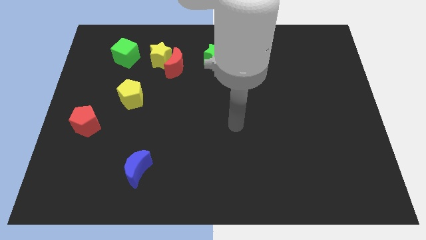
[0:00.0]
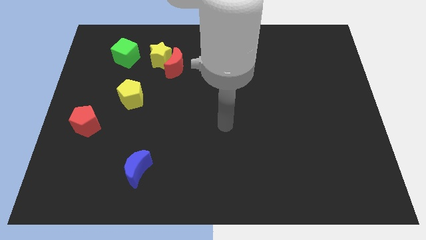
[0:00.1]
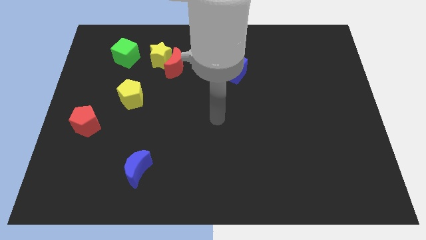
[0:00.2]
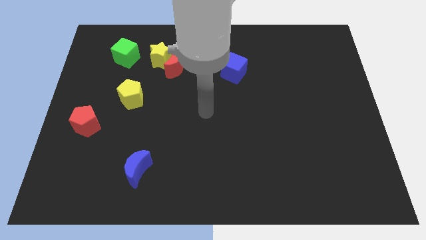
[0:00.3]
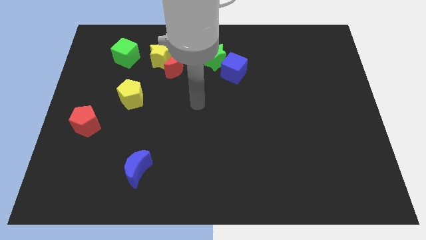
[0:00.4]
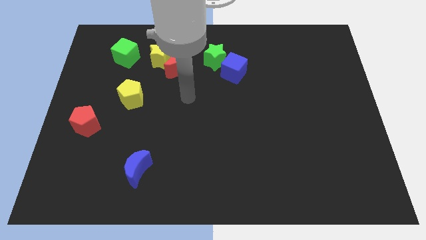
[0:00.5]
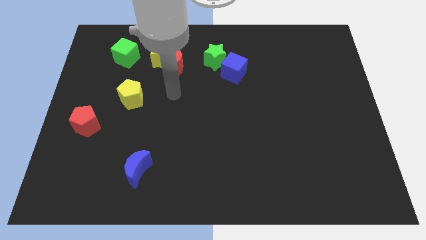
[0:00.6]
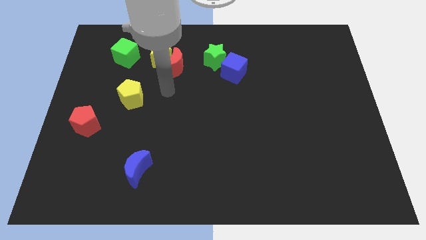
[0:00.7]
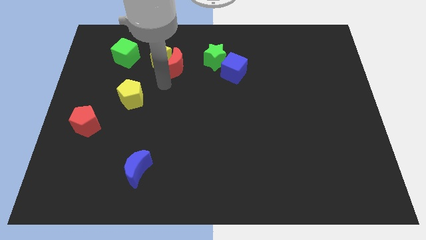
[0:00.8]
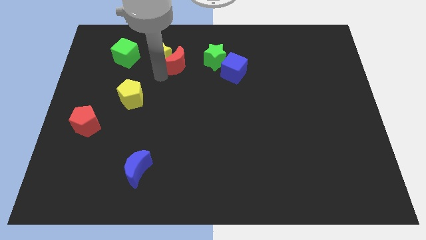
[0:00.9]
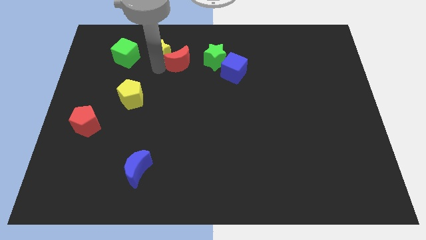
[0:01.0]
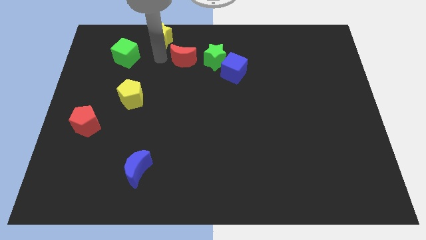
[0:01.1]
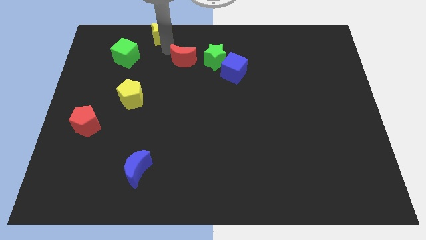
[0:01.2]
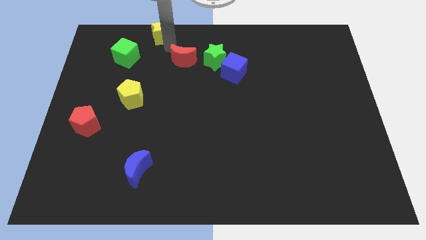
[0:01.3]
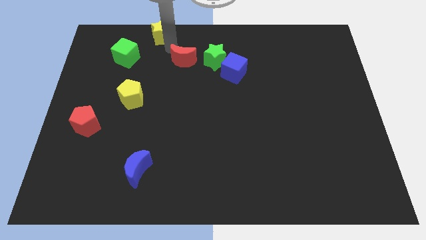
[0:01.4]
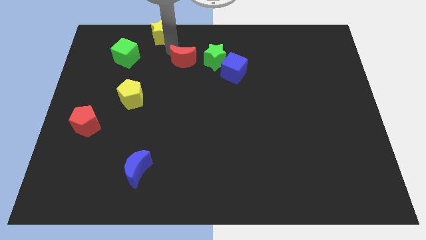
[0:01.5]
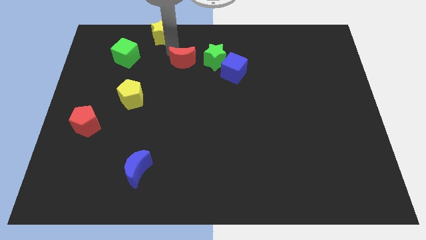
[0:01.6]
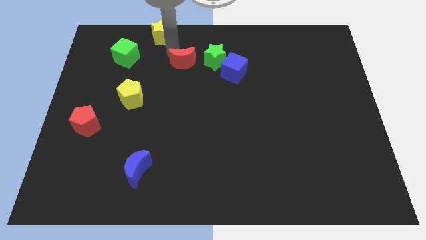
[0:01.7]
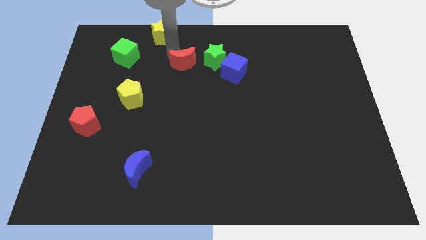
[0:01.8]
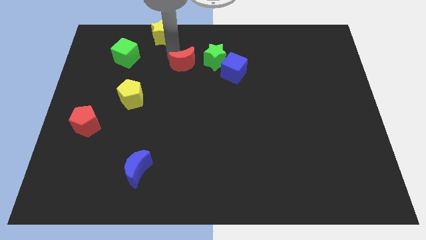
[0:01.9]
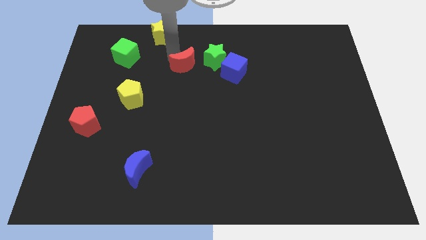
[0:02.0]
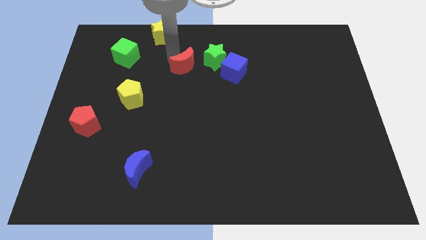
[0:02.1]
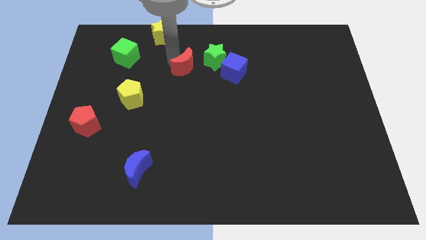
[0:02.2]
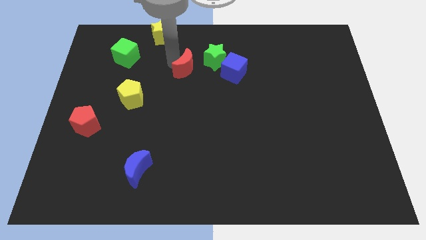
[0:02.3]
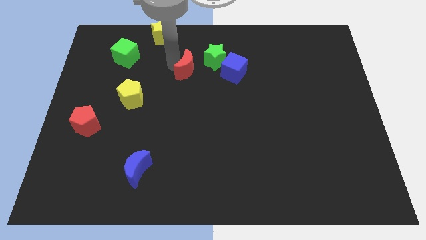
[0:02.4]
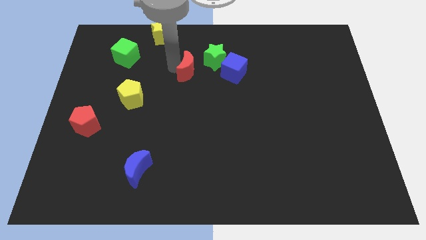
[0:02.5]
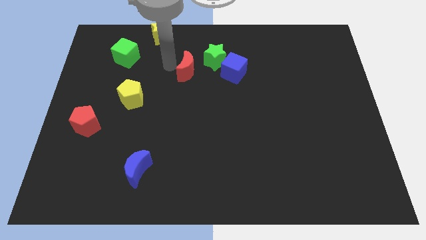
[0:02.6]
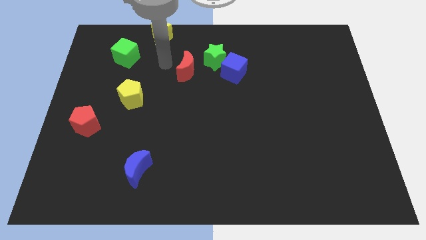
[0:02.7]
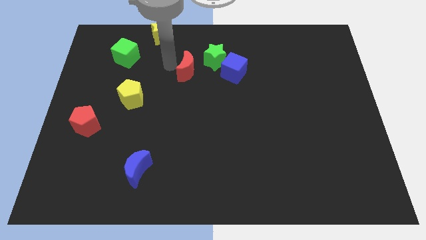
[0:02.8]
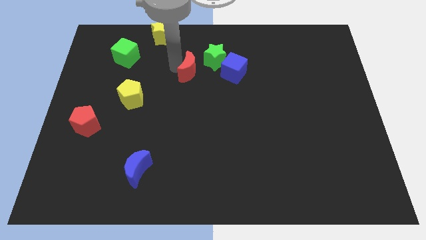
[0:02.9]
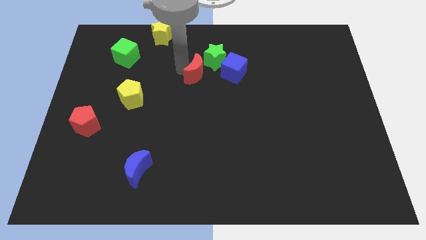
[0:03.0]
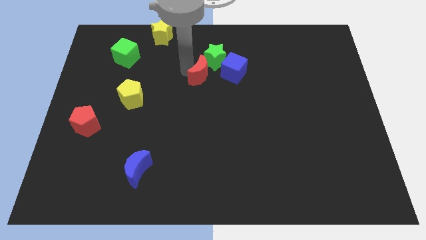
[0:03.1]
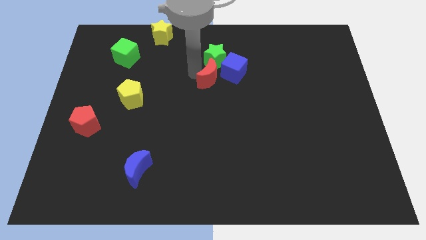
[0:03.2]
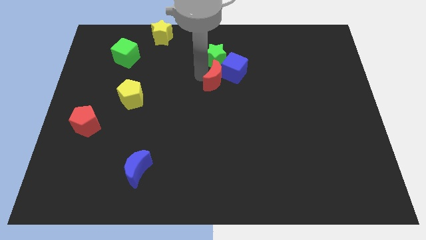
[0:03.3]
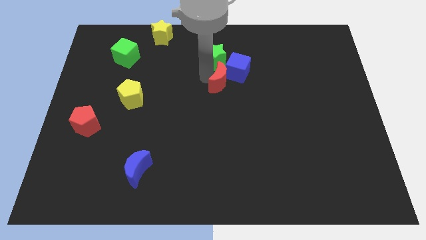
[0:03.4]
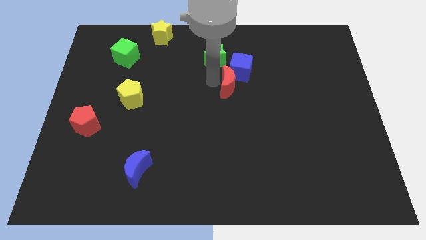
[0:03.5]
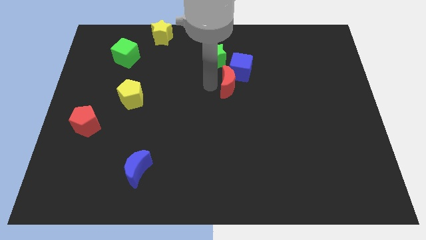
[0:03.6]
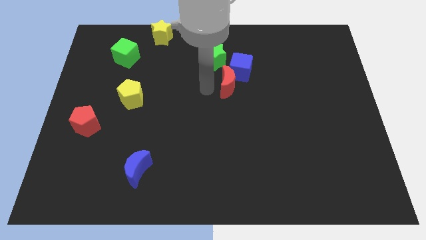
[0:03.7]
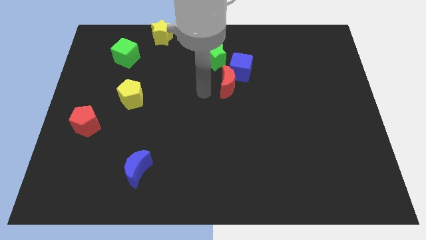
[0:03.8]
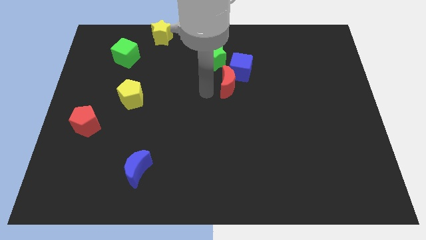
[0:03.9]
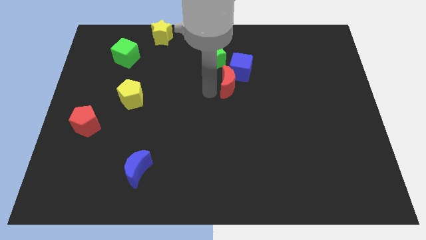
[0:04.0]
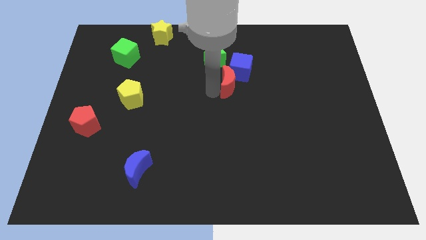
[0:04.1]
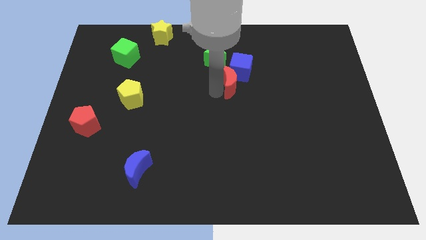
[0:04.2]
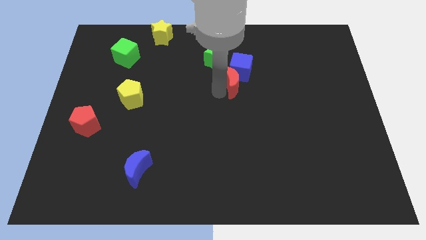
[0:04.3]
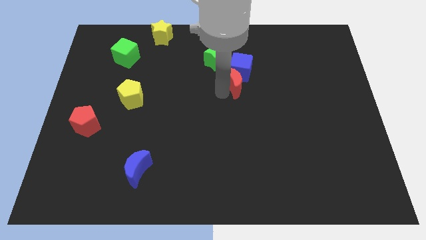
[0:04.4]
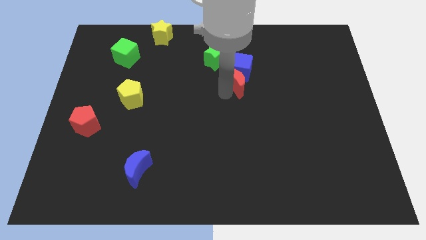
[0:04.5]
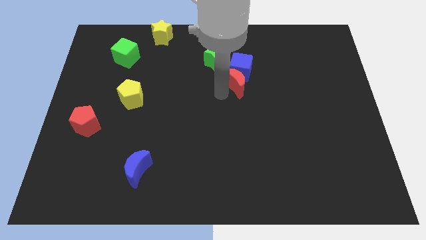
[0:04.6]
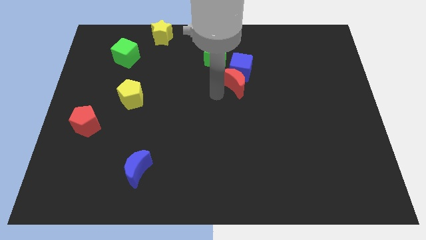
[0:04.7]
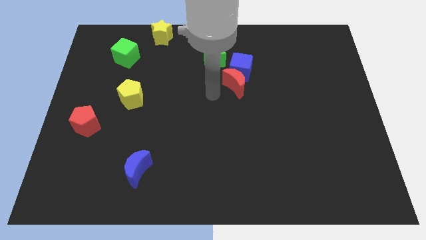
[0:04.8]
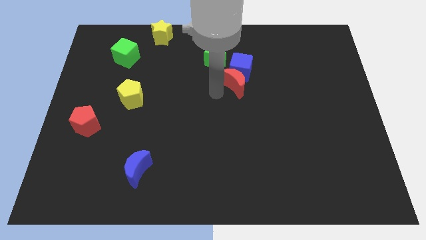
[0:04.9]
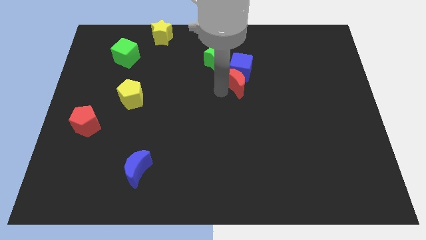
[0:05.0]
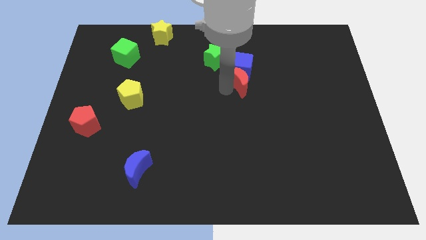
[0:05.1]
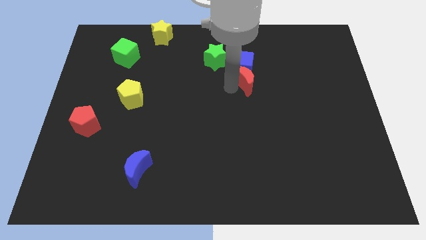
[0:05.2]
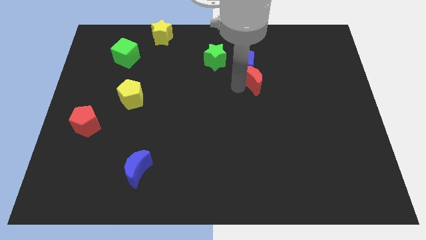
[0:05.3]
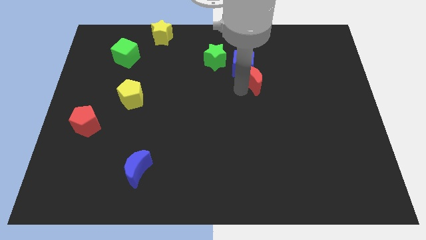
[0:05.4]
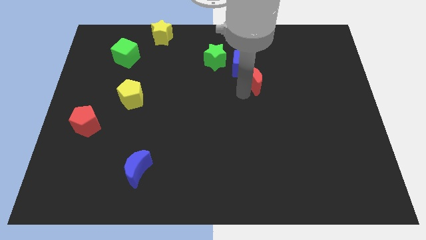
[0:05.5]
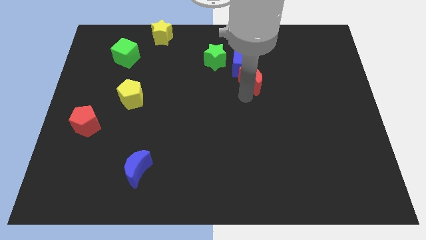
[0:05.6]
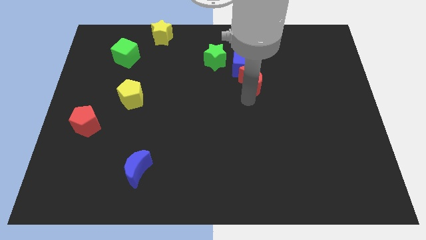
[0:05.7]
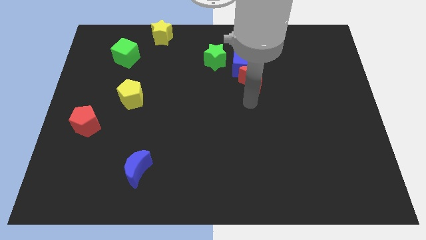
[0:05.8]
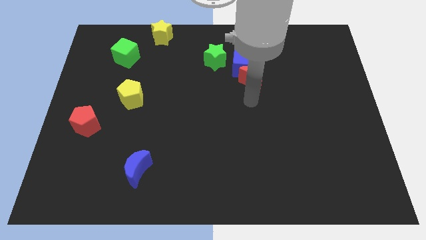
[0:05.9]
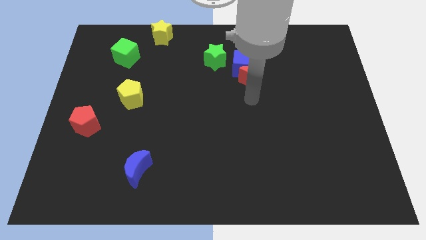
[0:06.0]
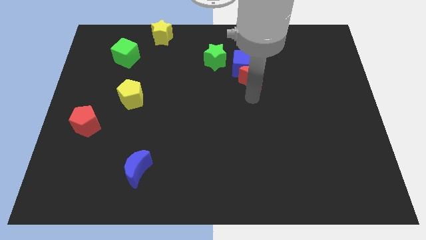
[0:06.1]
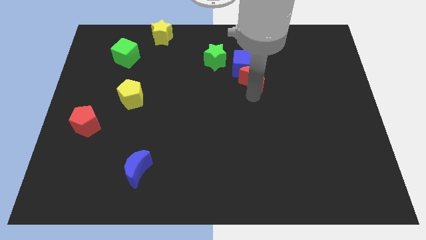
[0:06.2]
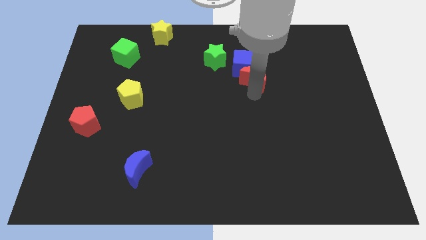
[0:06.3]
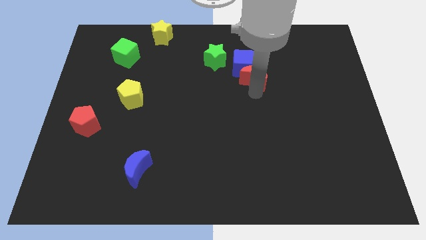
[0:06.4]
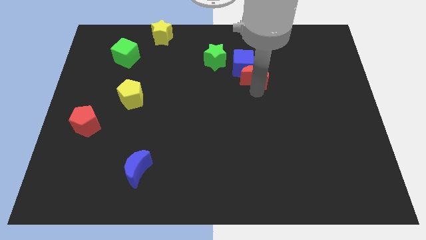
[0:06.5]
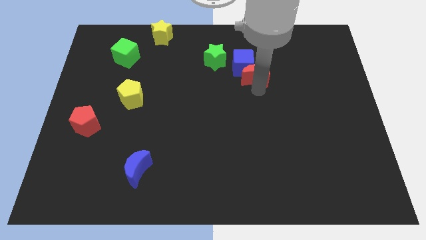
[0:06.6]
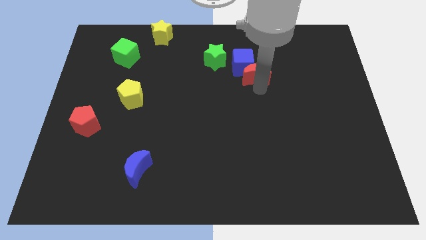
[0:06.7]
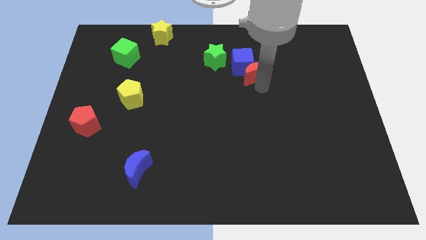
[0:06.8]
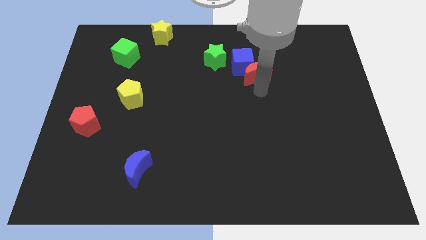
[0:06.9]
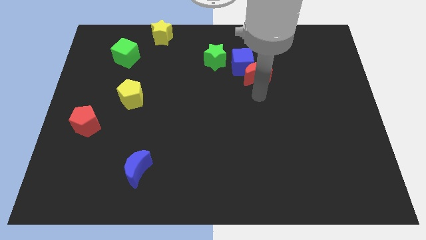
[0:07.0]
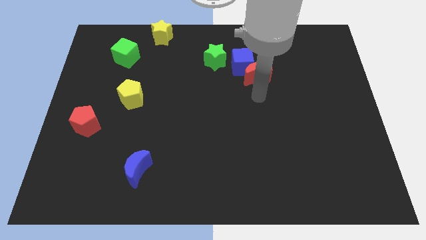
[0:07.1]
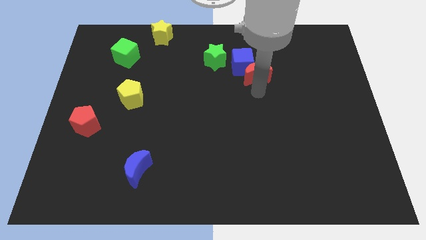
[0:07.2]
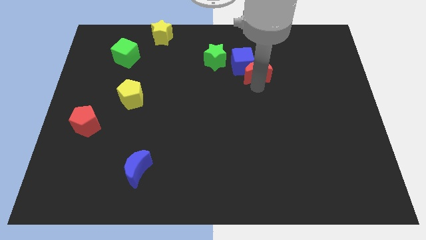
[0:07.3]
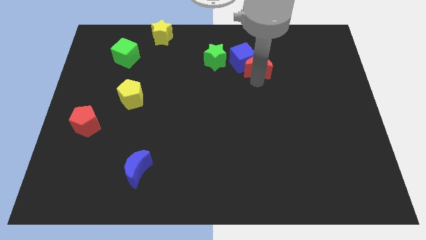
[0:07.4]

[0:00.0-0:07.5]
slide the red moon right of the green star
